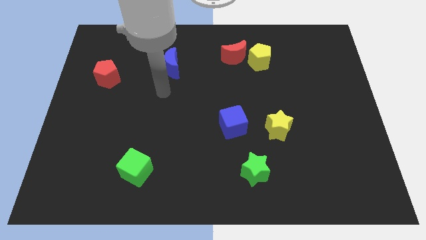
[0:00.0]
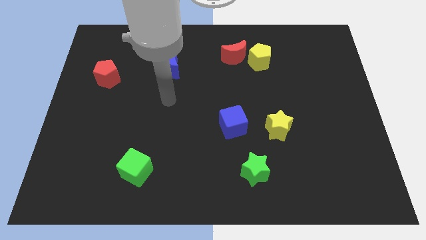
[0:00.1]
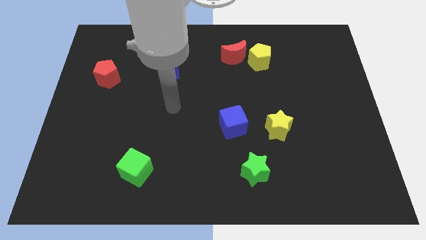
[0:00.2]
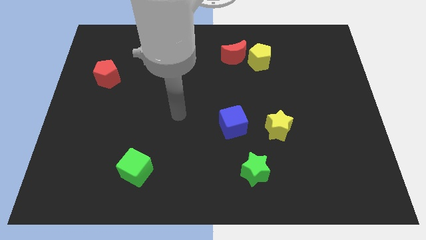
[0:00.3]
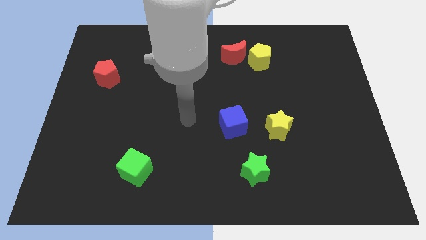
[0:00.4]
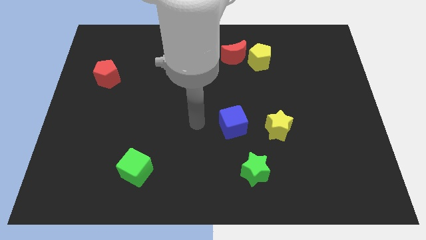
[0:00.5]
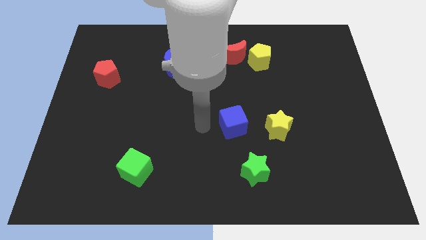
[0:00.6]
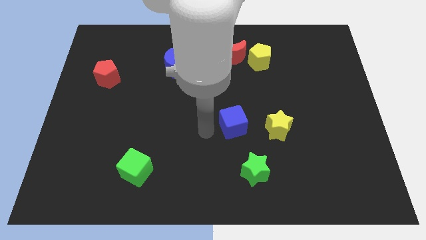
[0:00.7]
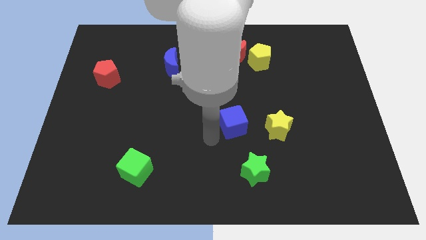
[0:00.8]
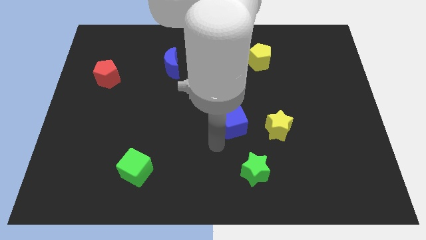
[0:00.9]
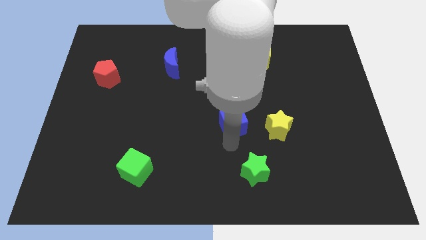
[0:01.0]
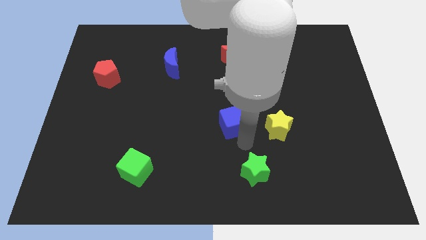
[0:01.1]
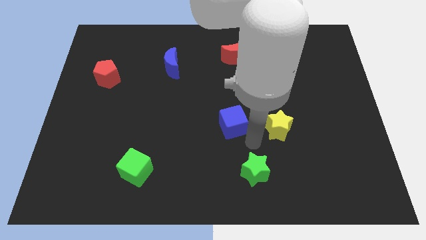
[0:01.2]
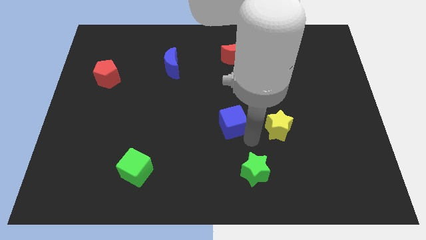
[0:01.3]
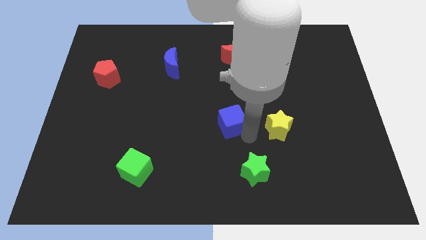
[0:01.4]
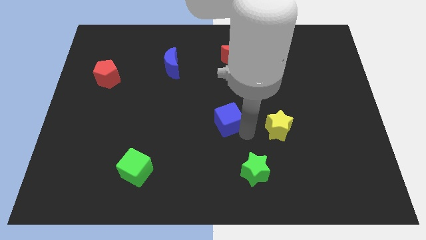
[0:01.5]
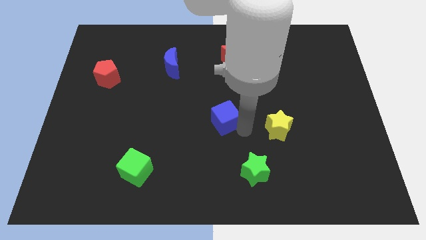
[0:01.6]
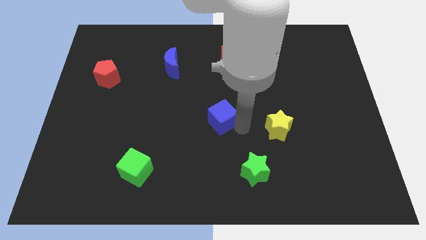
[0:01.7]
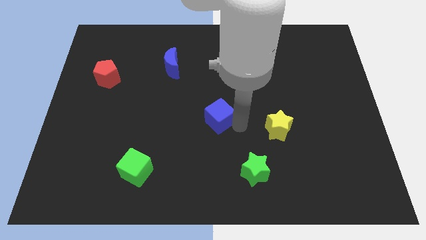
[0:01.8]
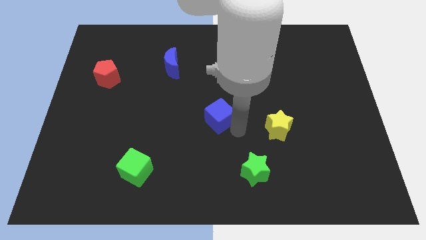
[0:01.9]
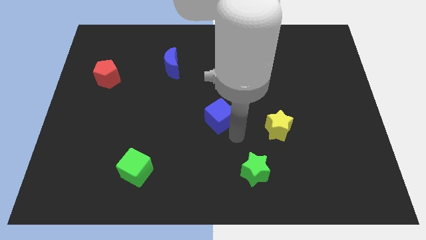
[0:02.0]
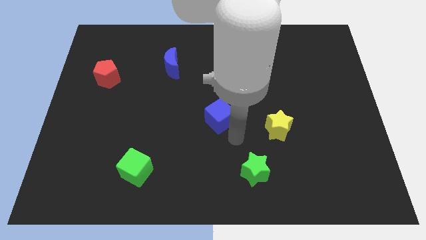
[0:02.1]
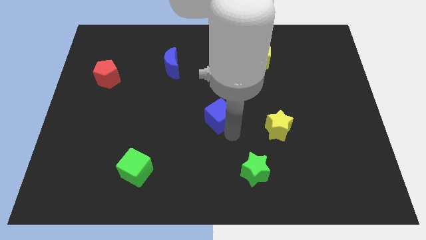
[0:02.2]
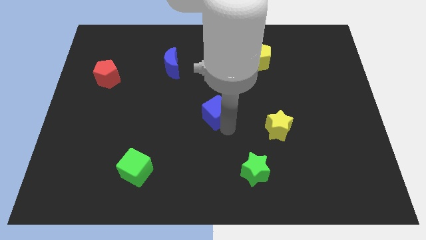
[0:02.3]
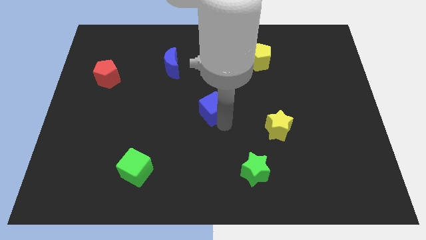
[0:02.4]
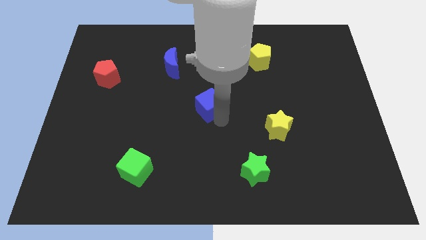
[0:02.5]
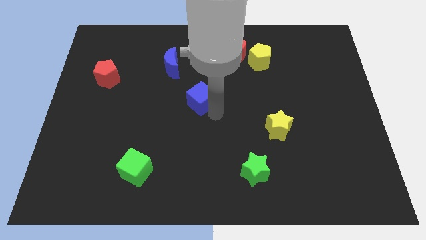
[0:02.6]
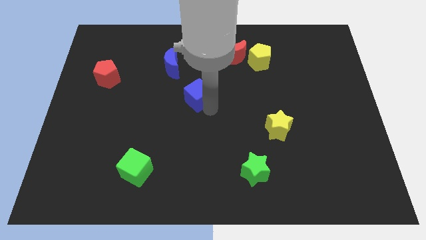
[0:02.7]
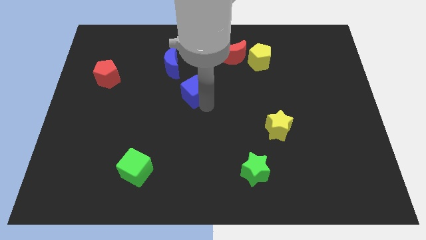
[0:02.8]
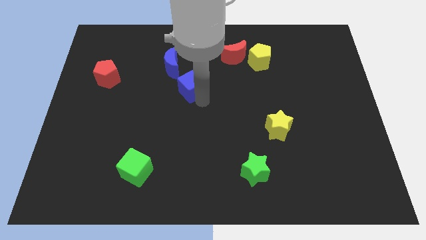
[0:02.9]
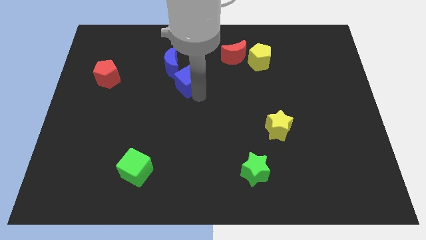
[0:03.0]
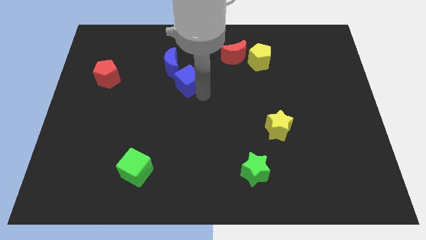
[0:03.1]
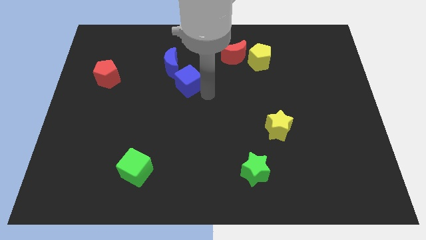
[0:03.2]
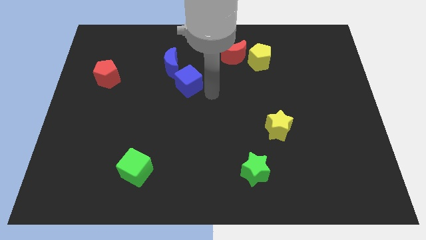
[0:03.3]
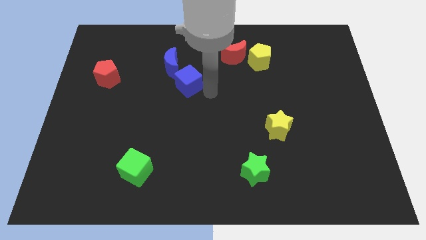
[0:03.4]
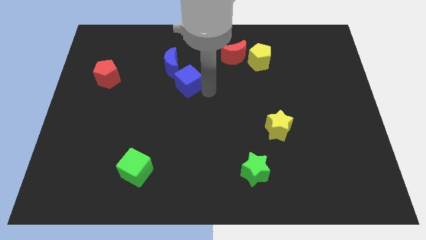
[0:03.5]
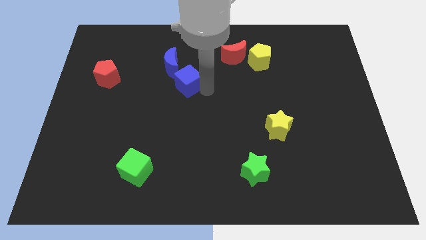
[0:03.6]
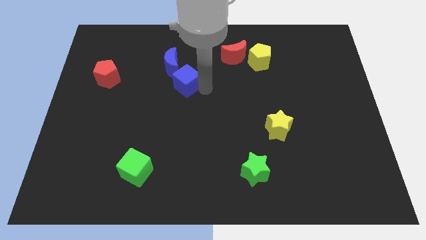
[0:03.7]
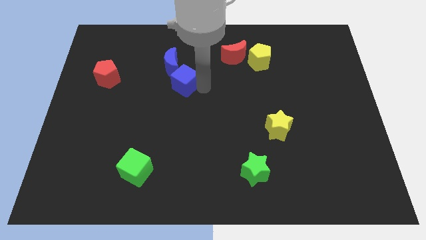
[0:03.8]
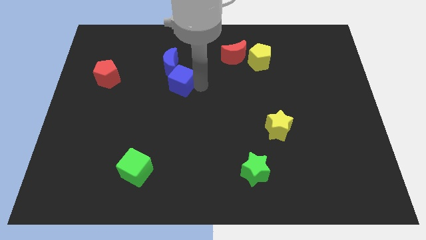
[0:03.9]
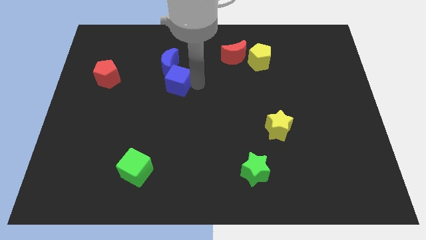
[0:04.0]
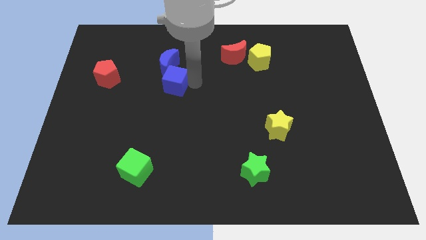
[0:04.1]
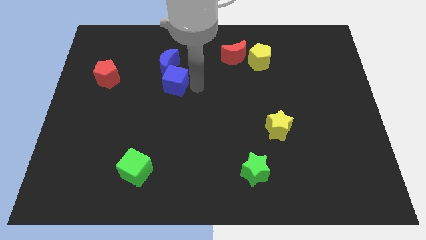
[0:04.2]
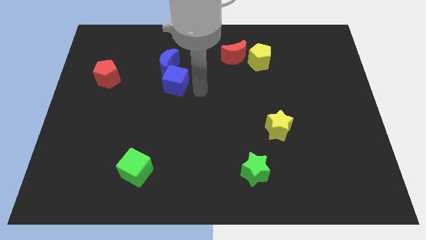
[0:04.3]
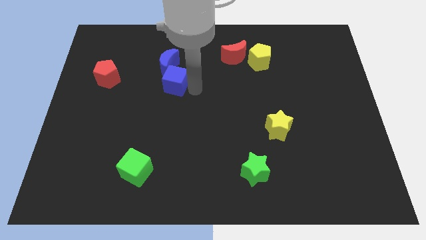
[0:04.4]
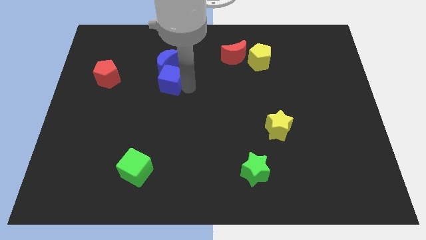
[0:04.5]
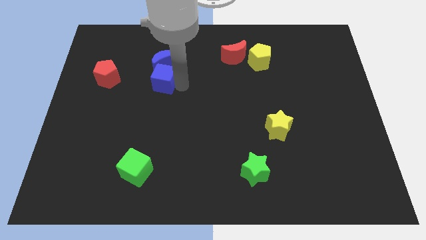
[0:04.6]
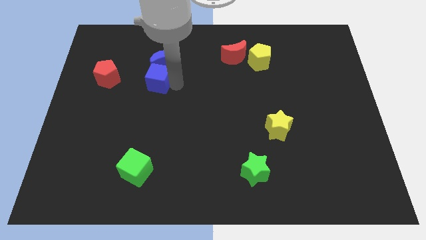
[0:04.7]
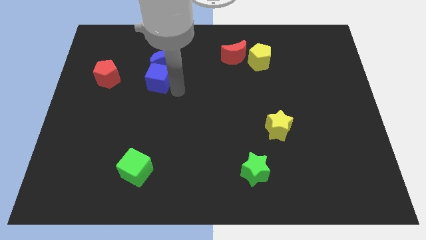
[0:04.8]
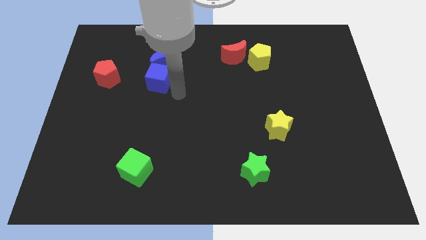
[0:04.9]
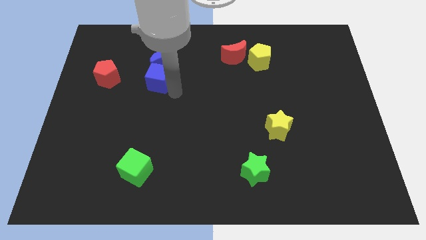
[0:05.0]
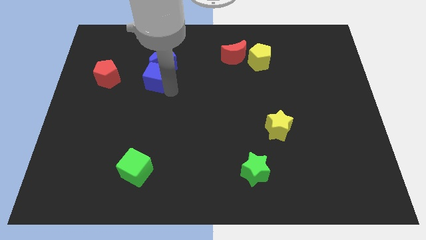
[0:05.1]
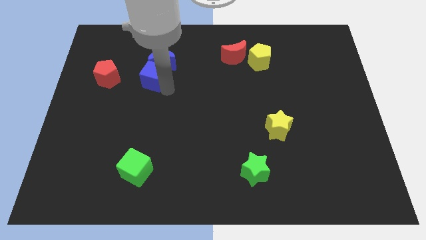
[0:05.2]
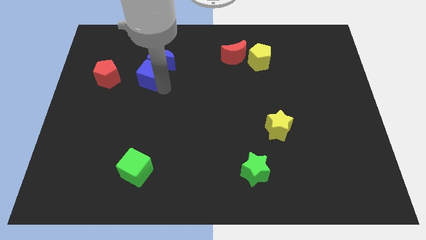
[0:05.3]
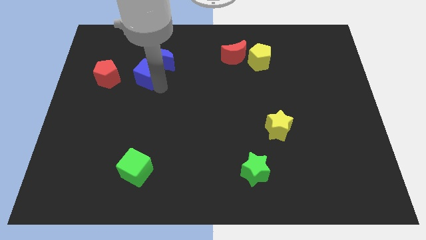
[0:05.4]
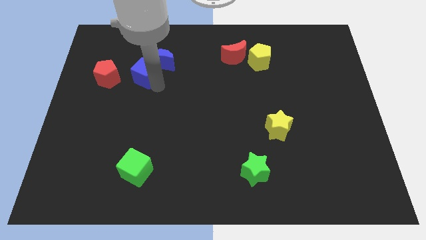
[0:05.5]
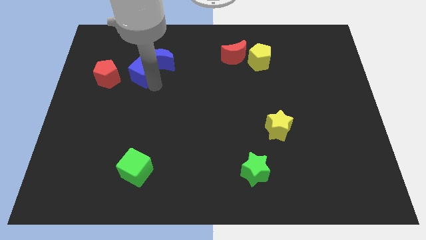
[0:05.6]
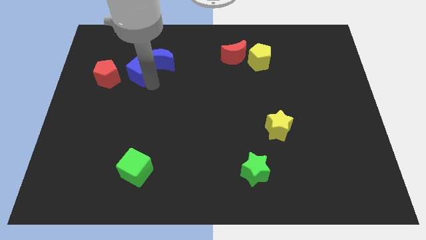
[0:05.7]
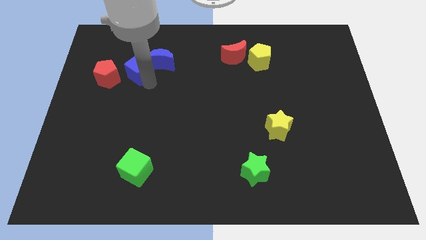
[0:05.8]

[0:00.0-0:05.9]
put the blue cube diagonally up and to the right of the red pentagon
